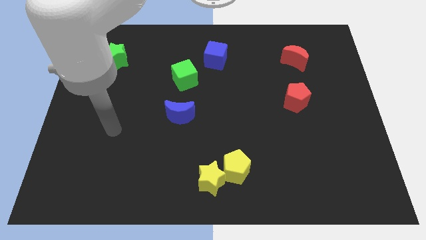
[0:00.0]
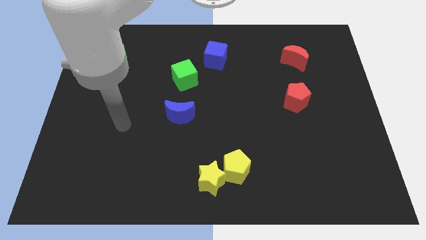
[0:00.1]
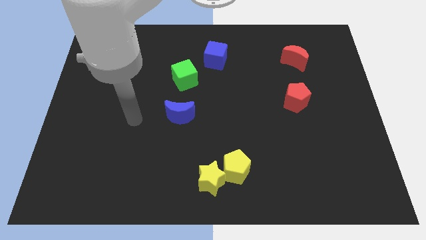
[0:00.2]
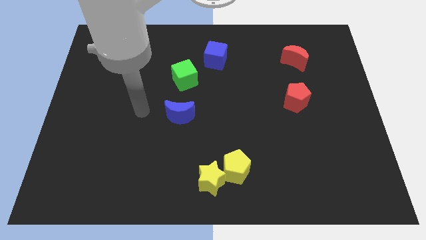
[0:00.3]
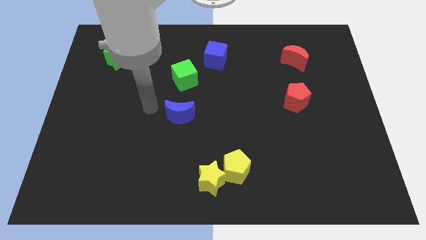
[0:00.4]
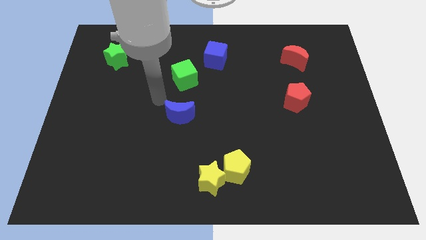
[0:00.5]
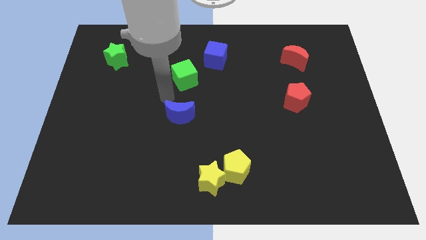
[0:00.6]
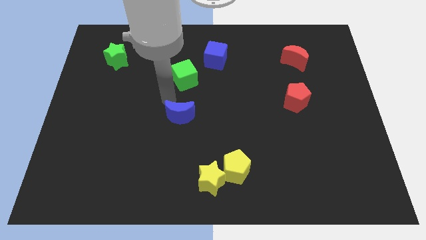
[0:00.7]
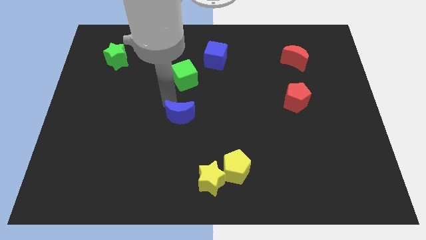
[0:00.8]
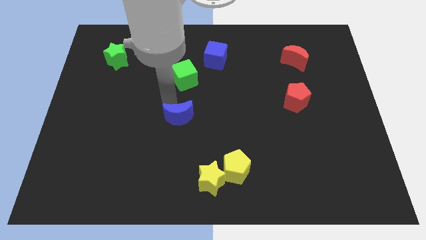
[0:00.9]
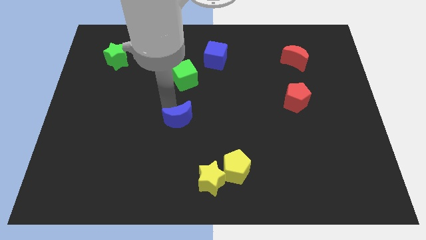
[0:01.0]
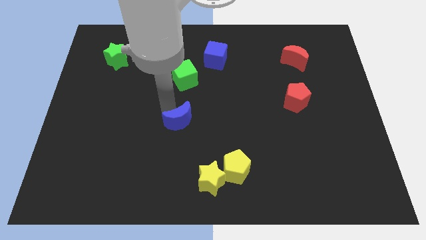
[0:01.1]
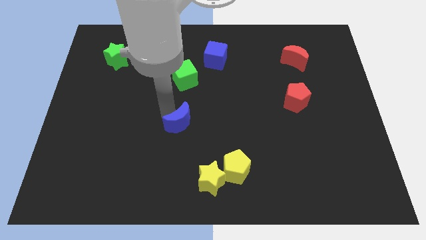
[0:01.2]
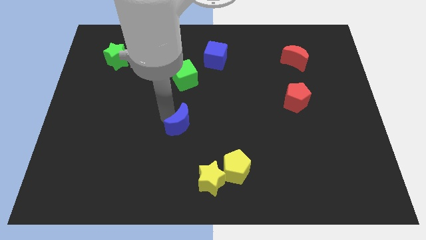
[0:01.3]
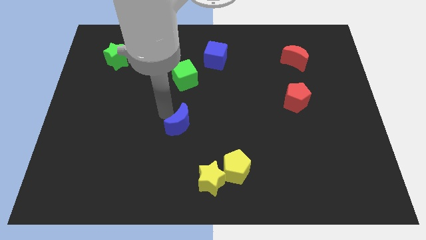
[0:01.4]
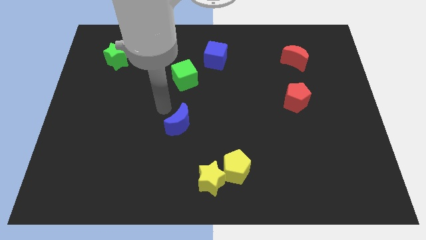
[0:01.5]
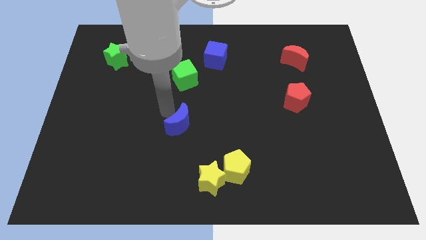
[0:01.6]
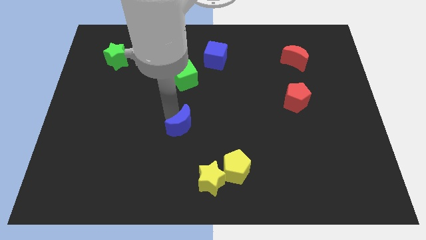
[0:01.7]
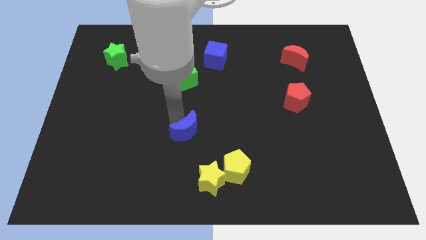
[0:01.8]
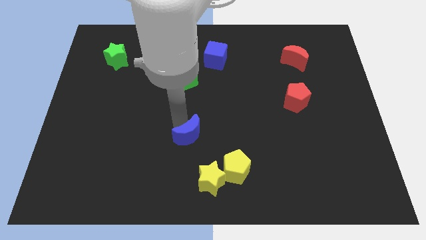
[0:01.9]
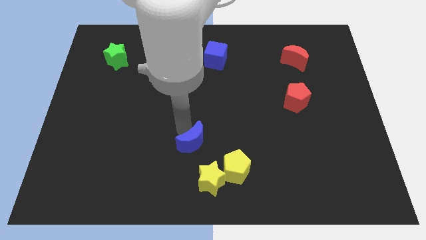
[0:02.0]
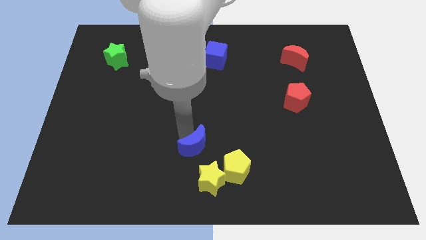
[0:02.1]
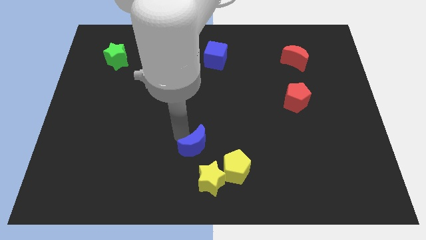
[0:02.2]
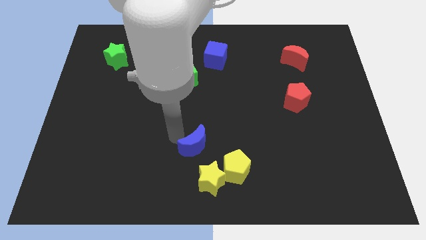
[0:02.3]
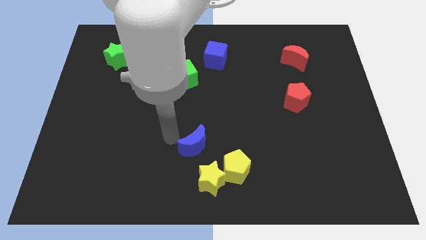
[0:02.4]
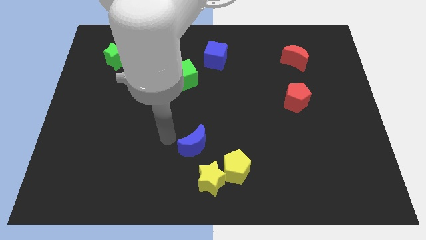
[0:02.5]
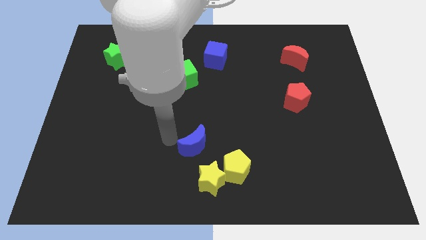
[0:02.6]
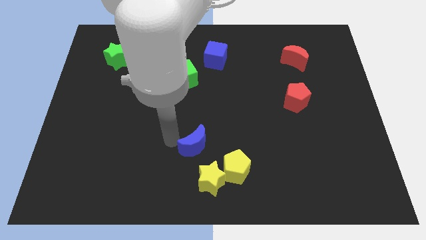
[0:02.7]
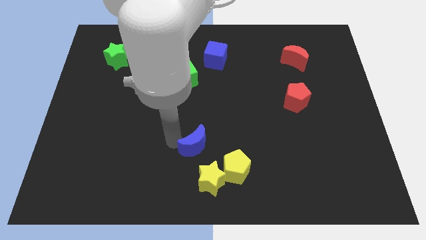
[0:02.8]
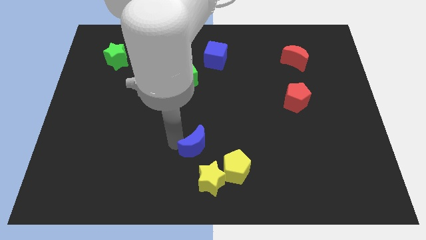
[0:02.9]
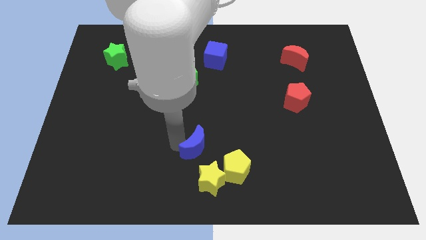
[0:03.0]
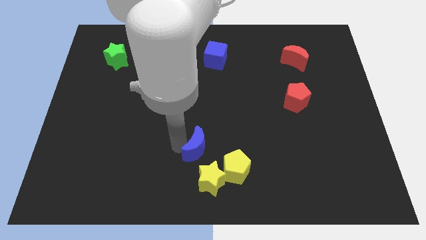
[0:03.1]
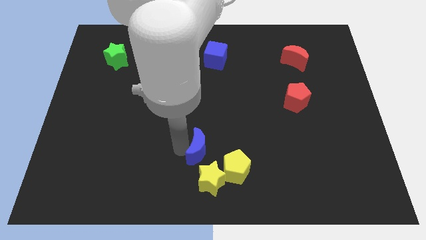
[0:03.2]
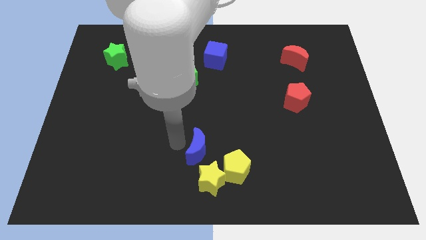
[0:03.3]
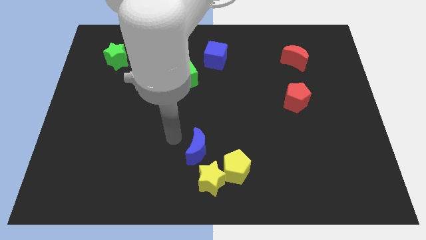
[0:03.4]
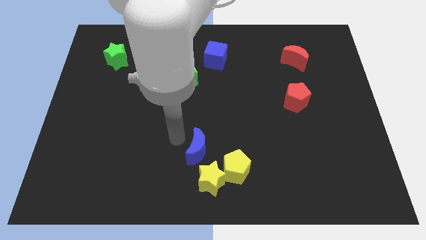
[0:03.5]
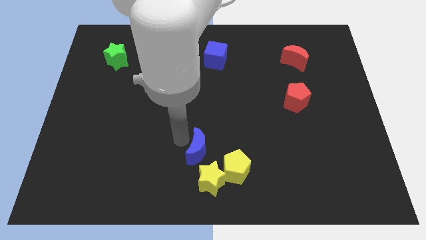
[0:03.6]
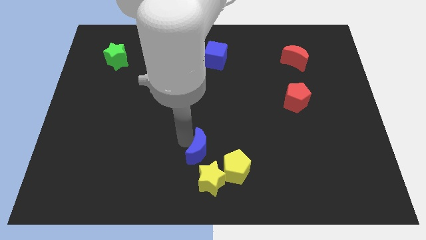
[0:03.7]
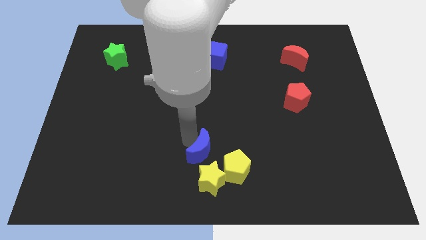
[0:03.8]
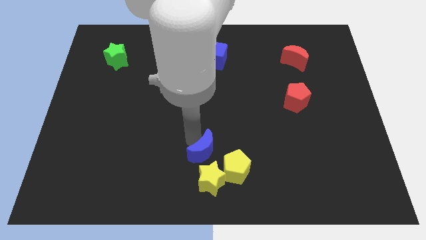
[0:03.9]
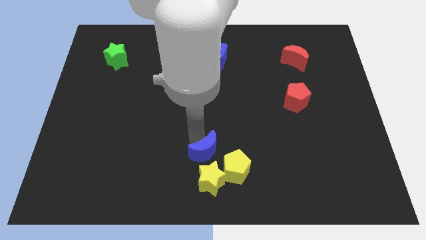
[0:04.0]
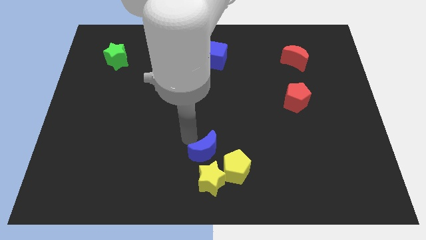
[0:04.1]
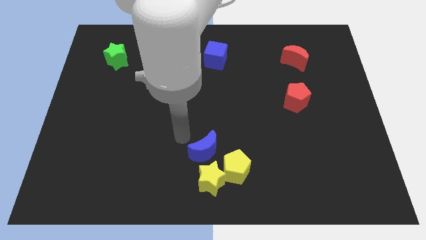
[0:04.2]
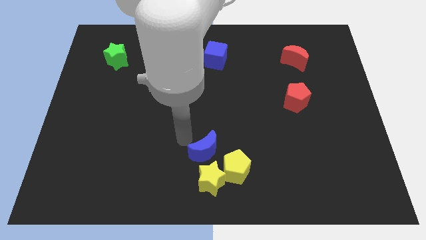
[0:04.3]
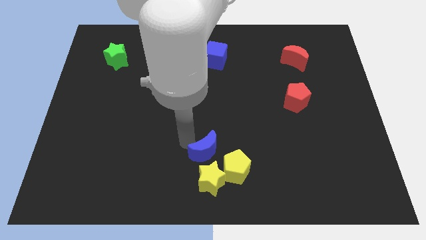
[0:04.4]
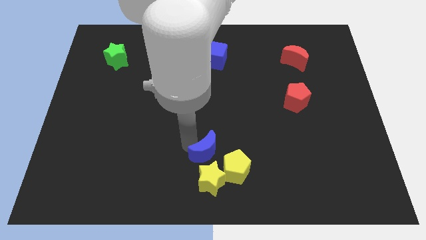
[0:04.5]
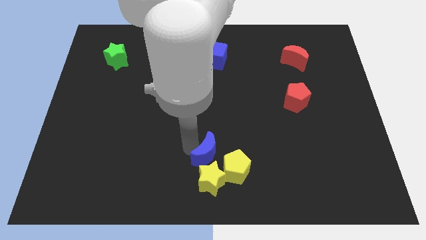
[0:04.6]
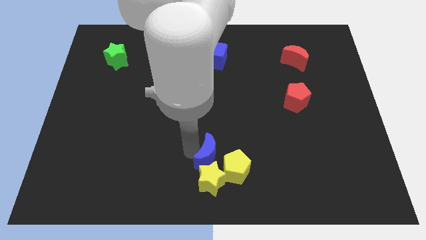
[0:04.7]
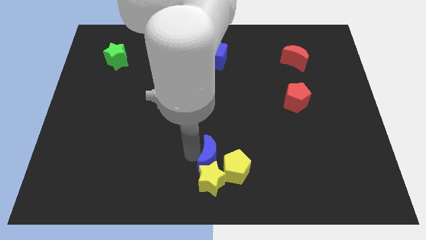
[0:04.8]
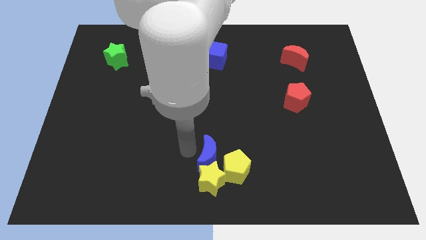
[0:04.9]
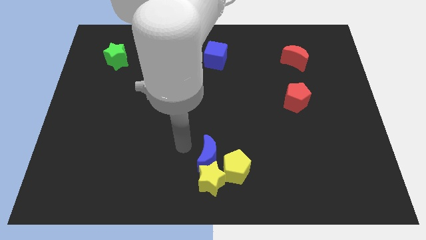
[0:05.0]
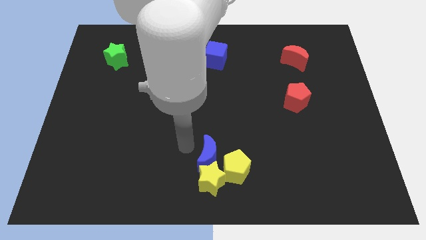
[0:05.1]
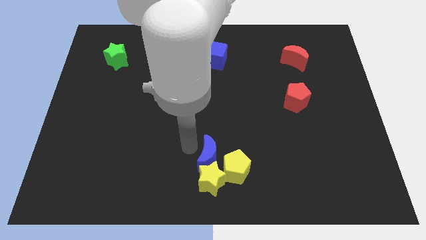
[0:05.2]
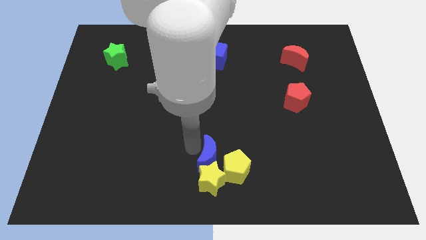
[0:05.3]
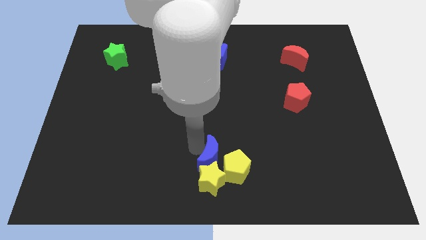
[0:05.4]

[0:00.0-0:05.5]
slide the blue moon towards the yellow pentagon

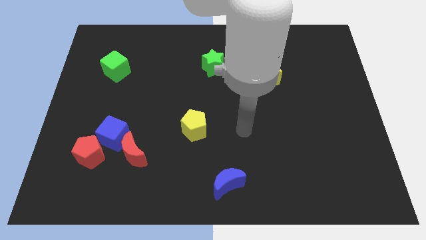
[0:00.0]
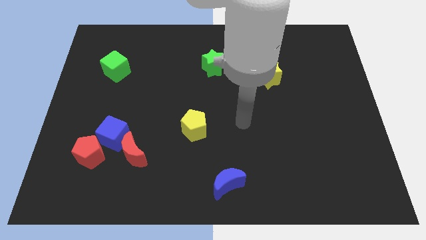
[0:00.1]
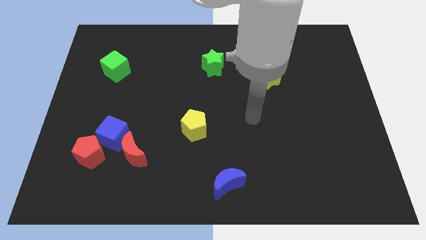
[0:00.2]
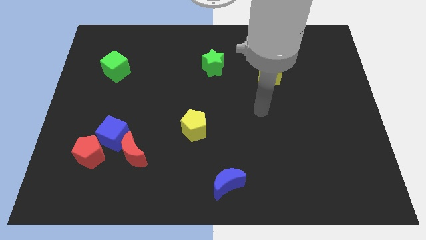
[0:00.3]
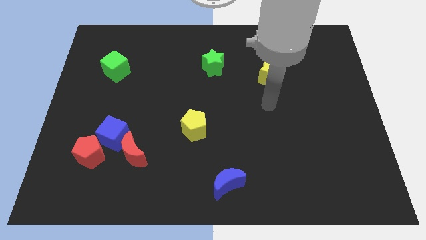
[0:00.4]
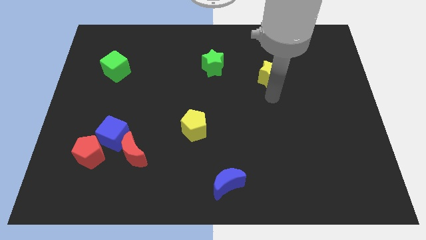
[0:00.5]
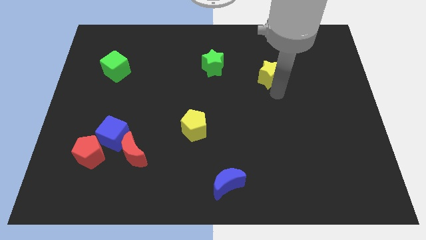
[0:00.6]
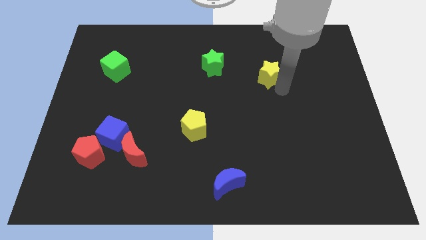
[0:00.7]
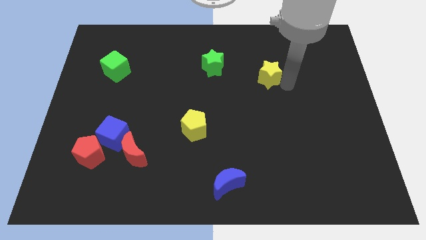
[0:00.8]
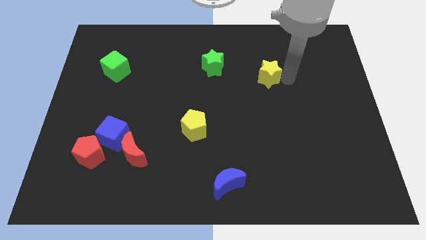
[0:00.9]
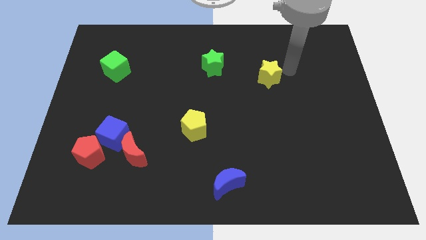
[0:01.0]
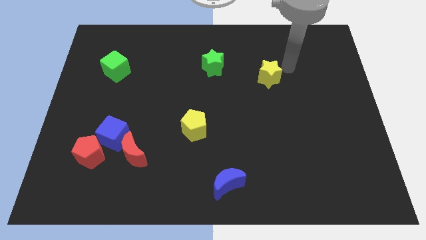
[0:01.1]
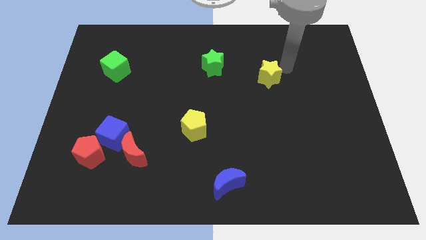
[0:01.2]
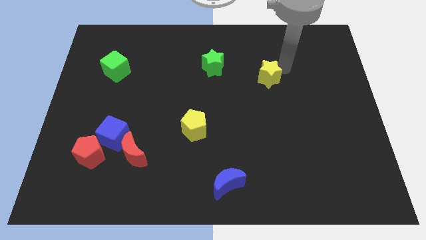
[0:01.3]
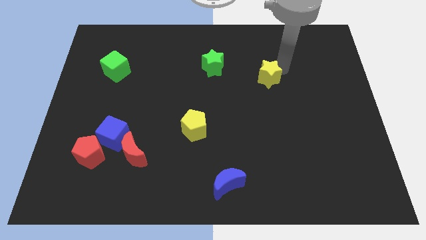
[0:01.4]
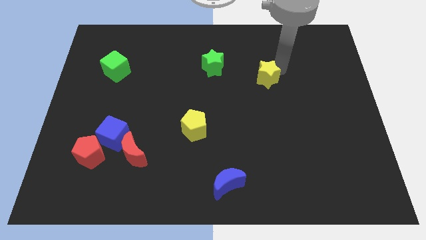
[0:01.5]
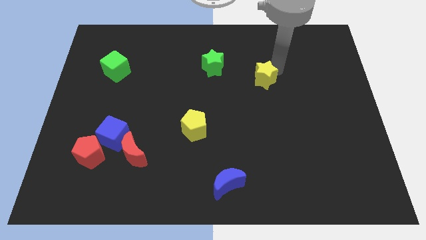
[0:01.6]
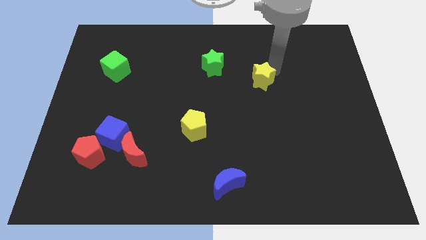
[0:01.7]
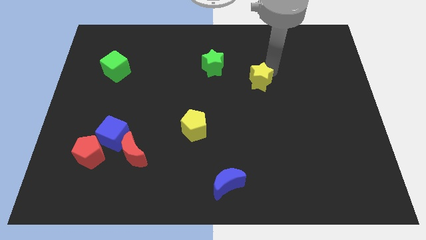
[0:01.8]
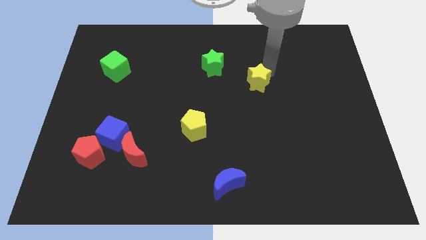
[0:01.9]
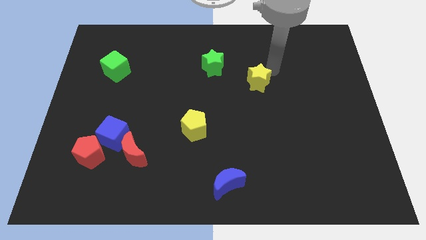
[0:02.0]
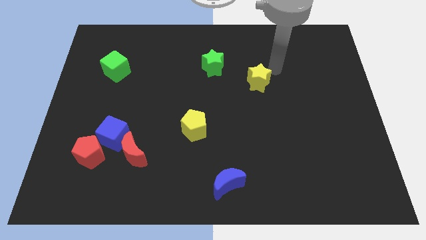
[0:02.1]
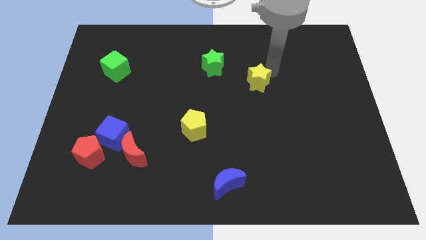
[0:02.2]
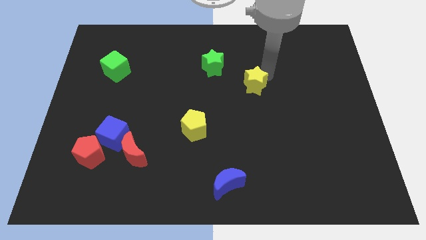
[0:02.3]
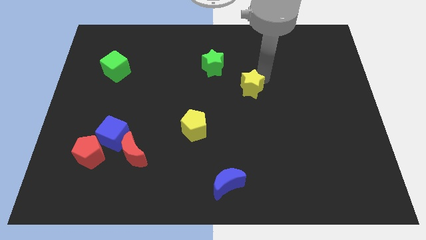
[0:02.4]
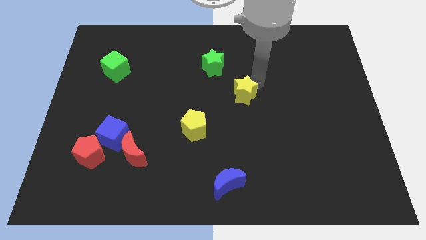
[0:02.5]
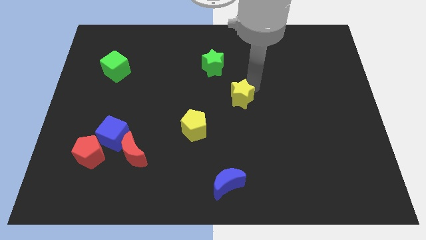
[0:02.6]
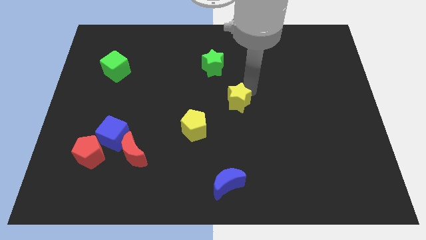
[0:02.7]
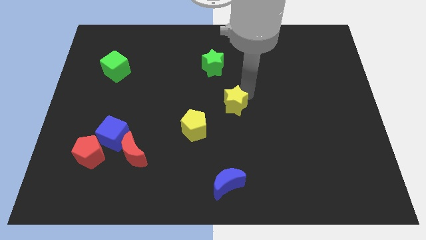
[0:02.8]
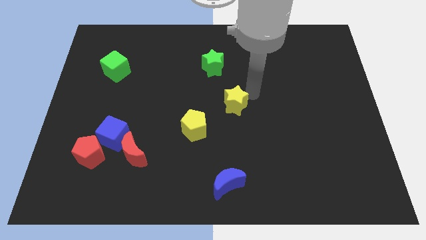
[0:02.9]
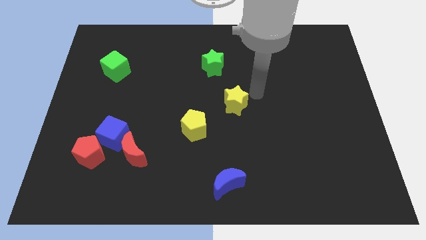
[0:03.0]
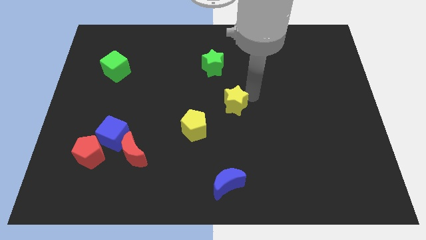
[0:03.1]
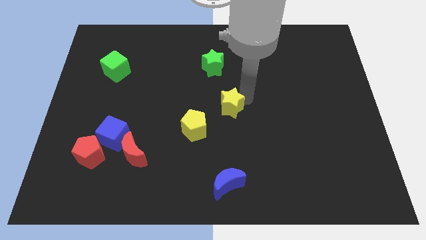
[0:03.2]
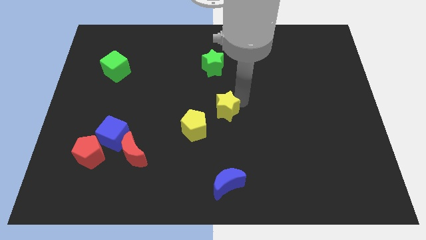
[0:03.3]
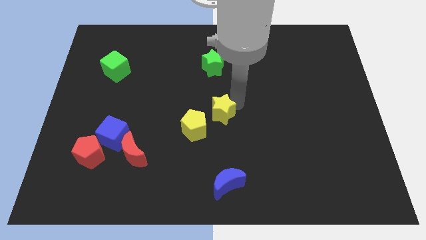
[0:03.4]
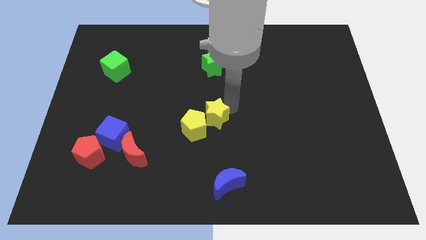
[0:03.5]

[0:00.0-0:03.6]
move the yellow star to the yellow pentagon
